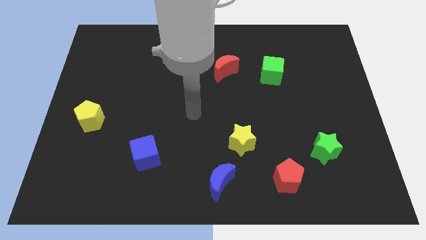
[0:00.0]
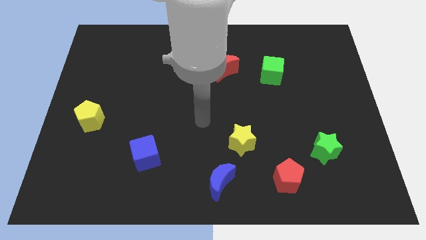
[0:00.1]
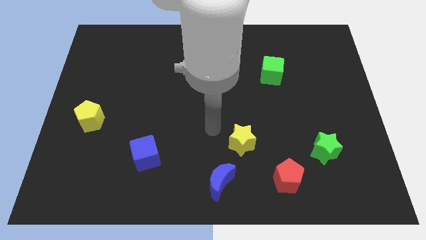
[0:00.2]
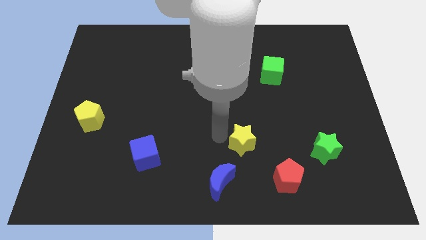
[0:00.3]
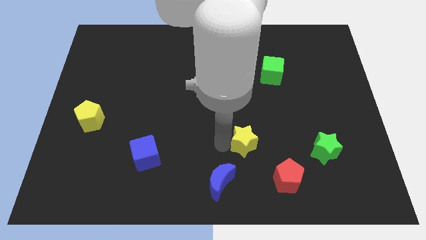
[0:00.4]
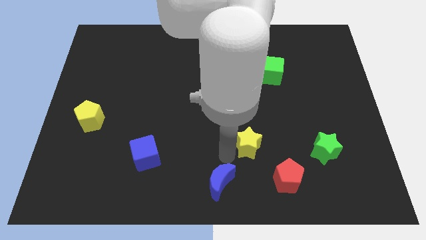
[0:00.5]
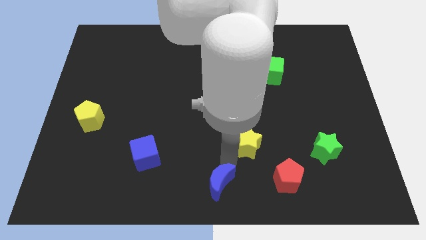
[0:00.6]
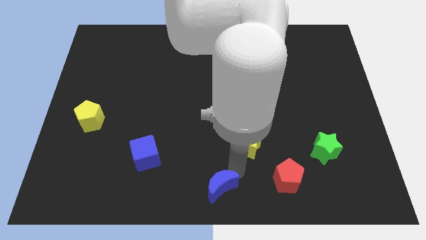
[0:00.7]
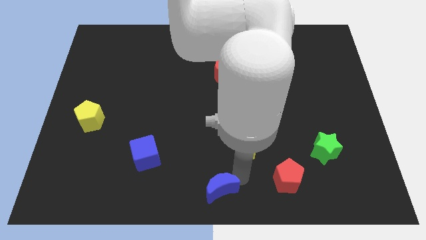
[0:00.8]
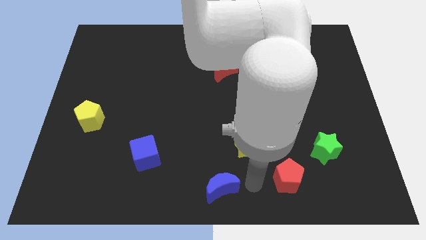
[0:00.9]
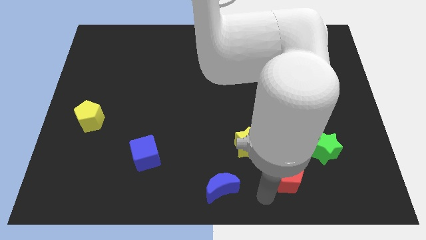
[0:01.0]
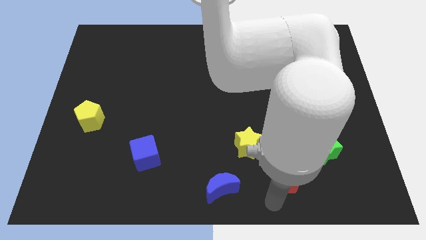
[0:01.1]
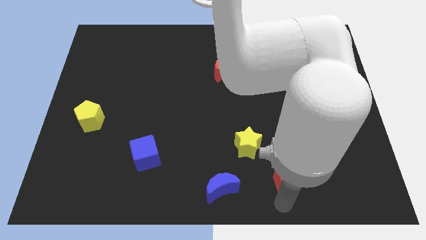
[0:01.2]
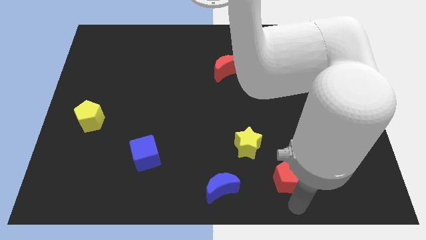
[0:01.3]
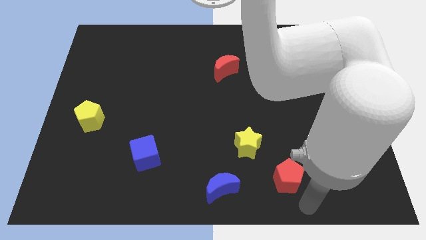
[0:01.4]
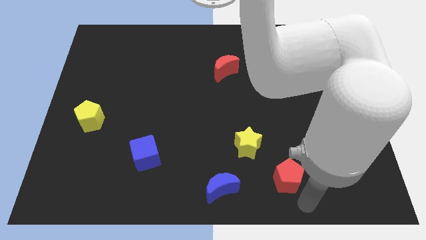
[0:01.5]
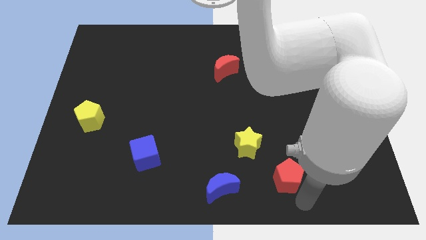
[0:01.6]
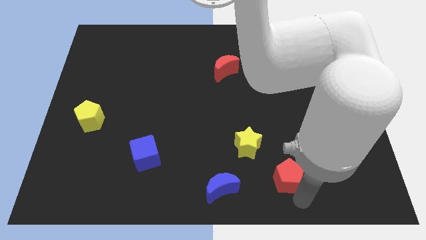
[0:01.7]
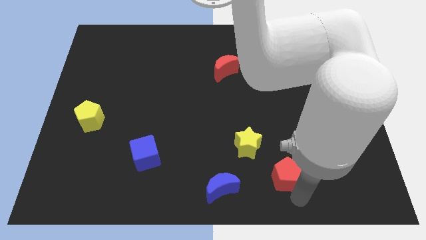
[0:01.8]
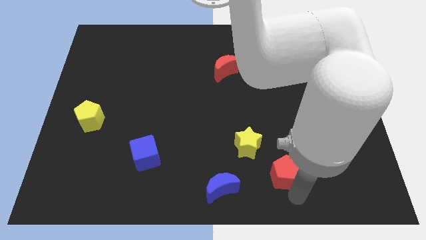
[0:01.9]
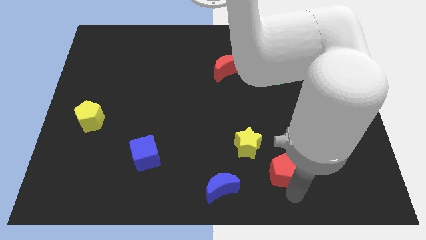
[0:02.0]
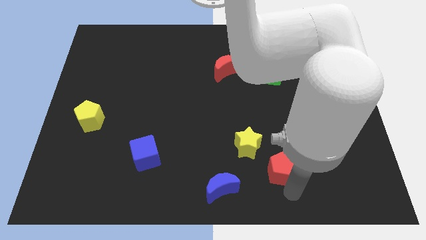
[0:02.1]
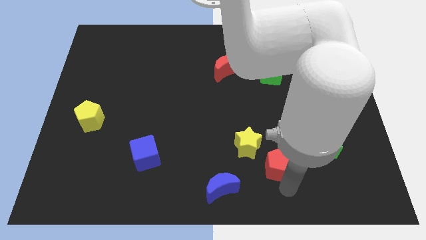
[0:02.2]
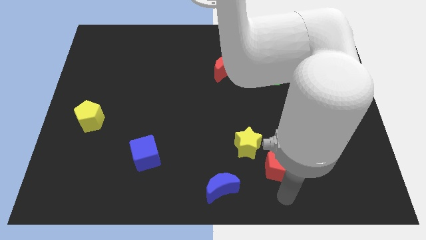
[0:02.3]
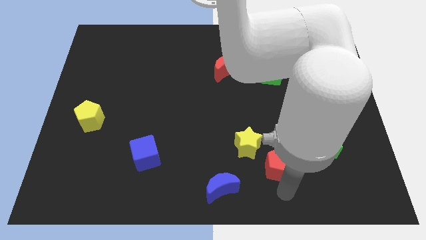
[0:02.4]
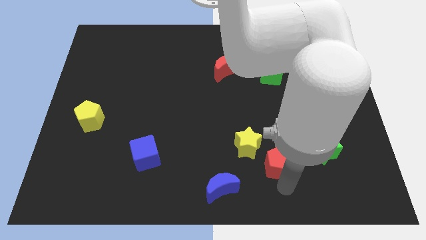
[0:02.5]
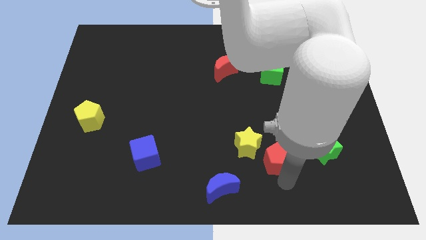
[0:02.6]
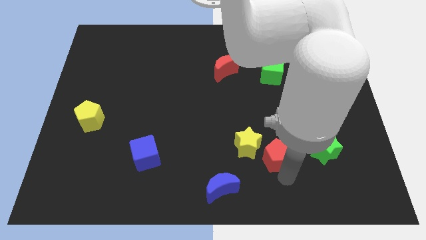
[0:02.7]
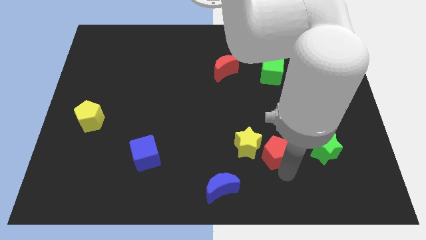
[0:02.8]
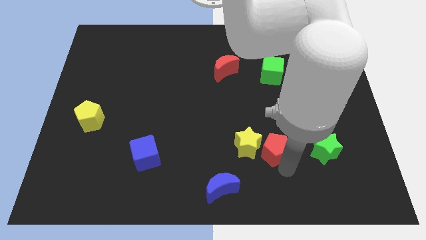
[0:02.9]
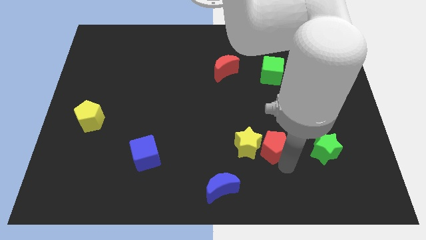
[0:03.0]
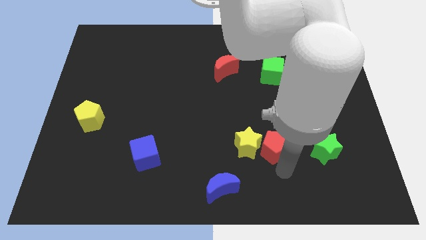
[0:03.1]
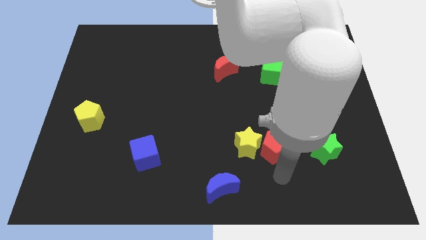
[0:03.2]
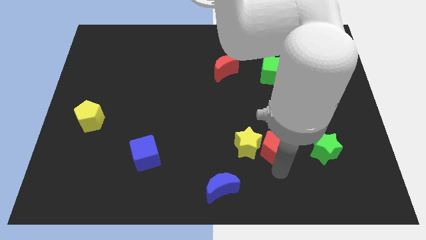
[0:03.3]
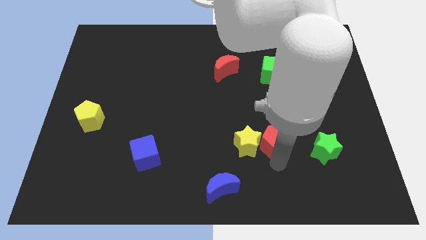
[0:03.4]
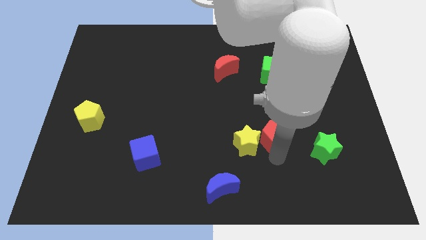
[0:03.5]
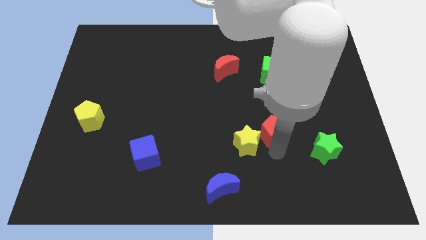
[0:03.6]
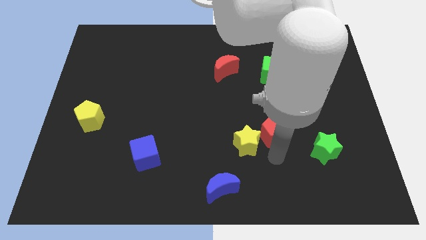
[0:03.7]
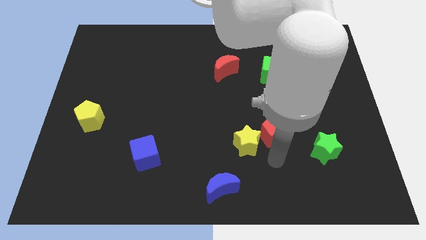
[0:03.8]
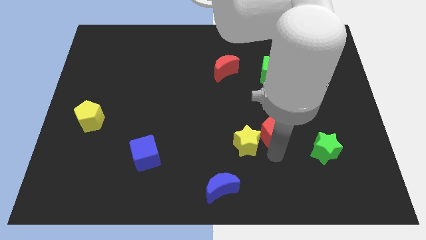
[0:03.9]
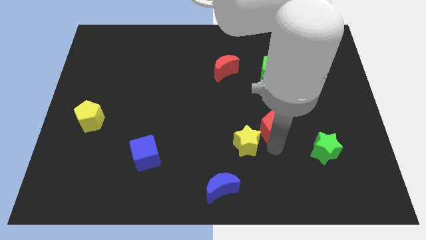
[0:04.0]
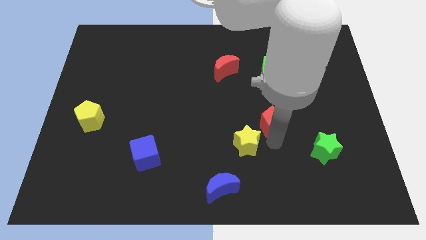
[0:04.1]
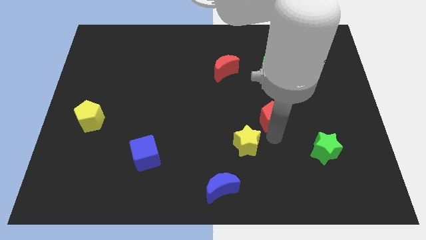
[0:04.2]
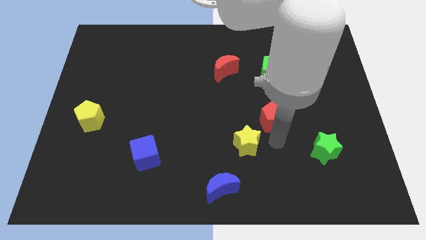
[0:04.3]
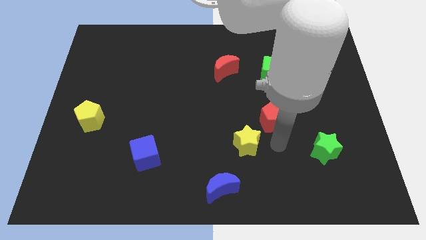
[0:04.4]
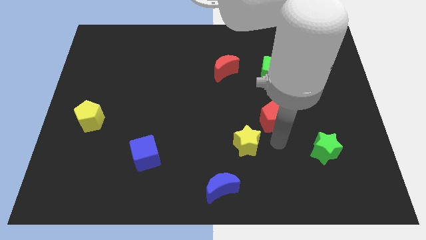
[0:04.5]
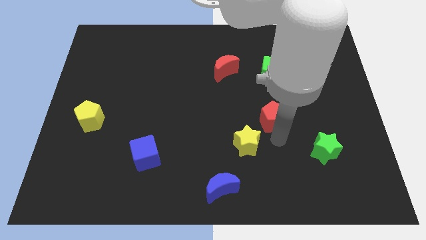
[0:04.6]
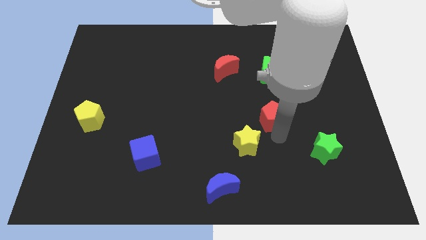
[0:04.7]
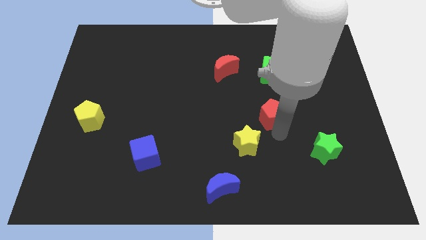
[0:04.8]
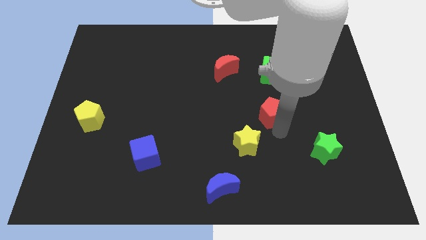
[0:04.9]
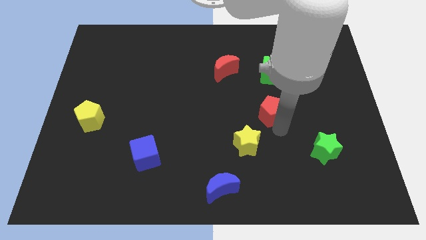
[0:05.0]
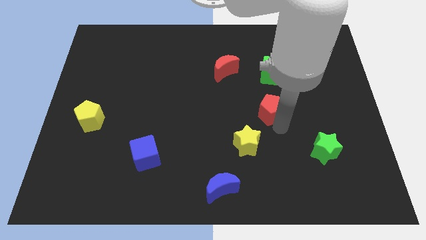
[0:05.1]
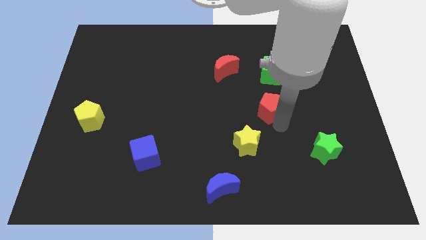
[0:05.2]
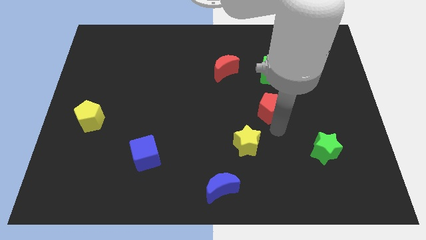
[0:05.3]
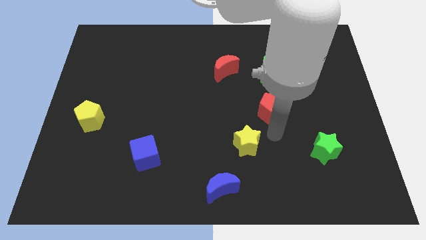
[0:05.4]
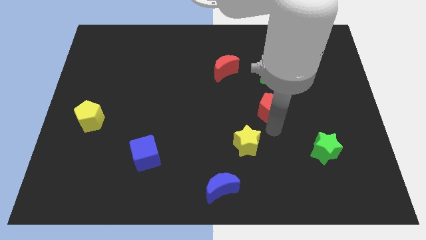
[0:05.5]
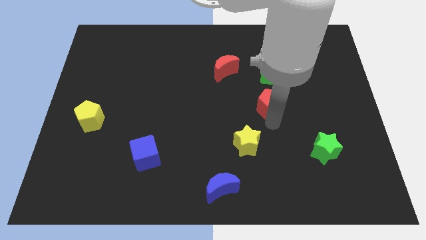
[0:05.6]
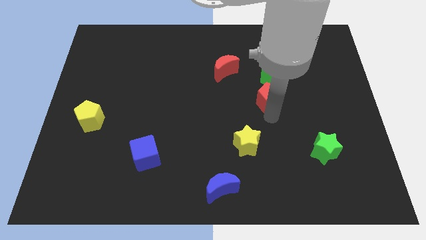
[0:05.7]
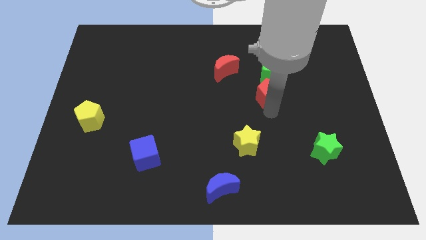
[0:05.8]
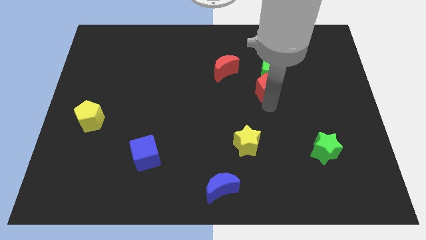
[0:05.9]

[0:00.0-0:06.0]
push the red pentagon close to the green cube

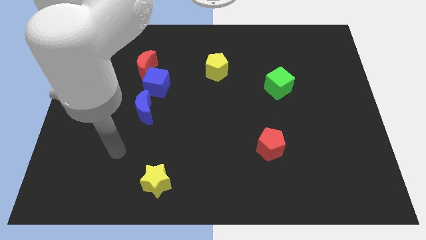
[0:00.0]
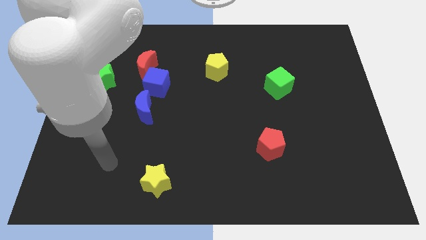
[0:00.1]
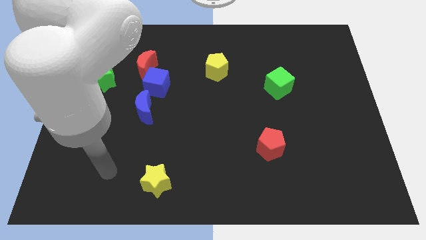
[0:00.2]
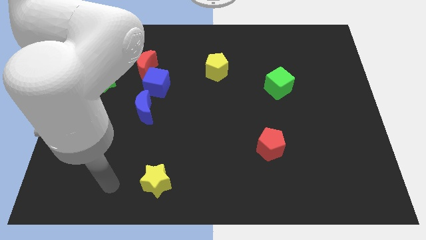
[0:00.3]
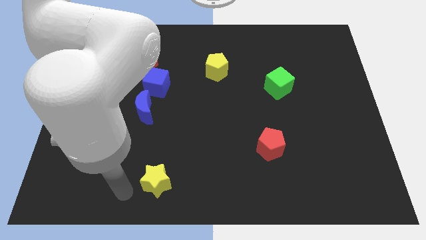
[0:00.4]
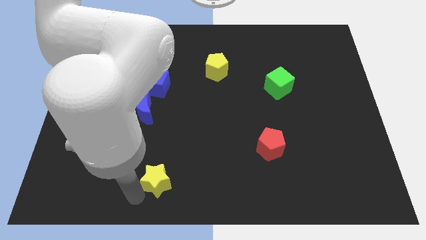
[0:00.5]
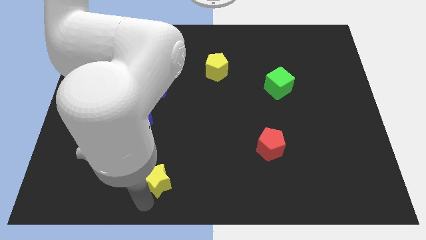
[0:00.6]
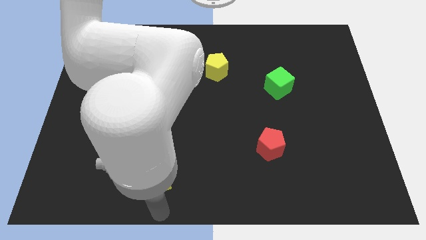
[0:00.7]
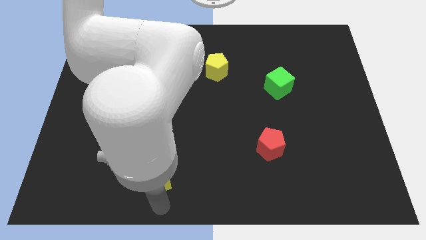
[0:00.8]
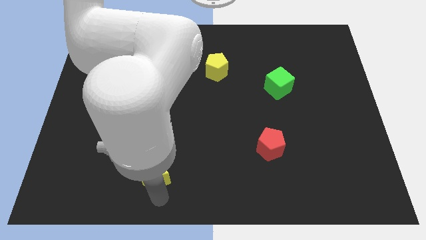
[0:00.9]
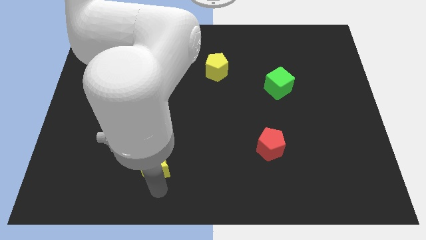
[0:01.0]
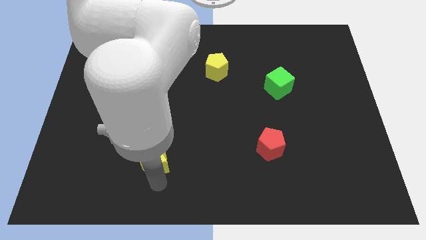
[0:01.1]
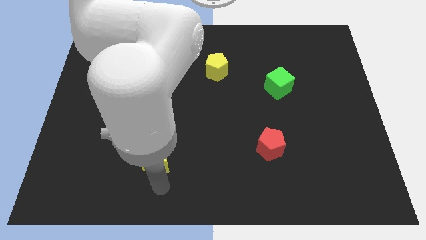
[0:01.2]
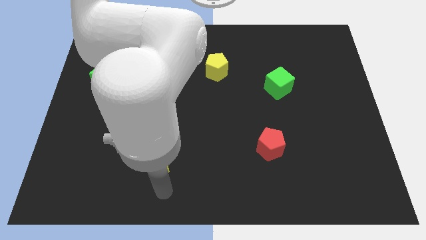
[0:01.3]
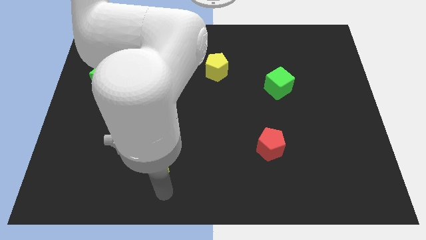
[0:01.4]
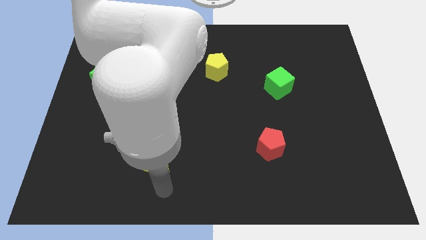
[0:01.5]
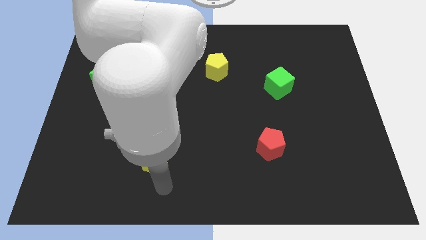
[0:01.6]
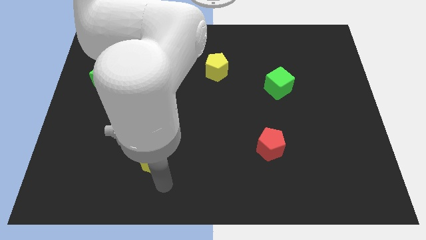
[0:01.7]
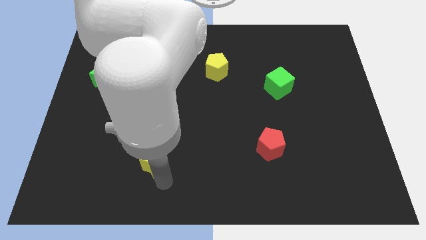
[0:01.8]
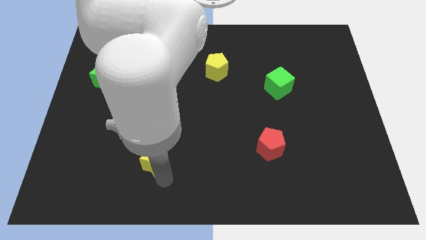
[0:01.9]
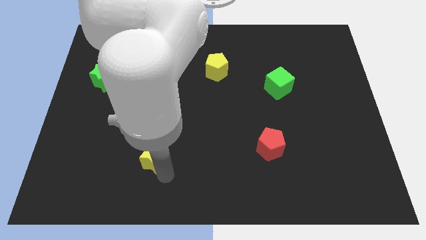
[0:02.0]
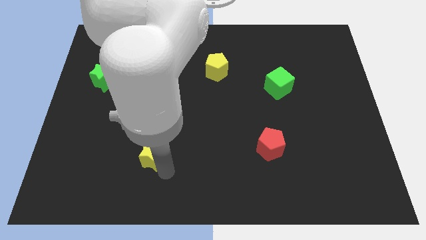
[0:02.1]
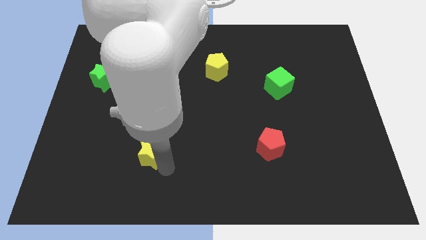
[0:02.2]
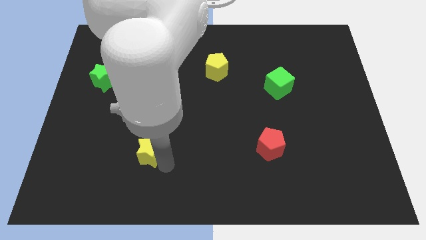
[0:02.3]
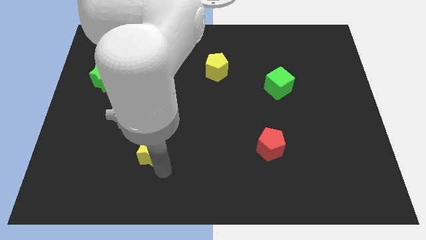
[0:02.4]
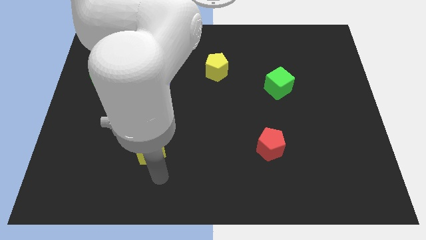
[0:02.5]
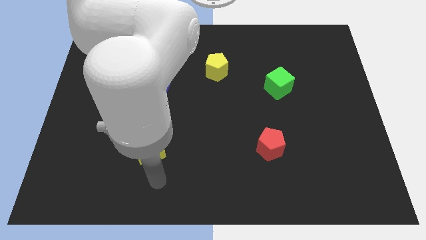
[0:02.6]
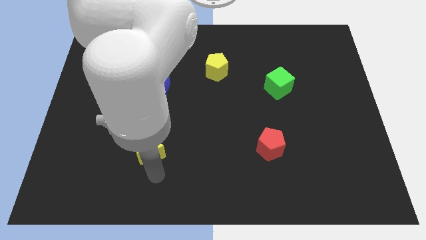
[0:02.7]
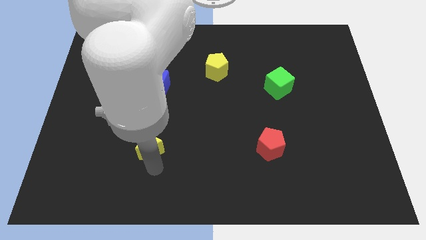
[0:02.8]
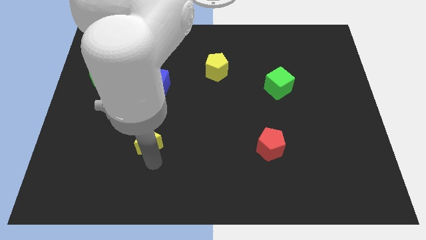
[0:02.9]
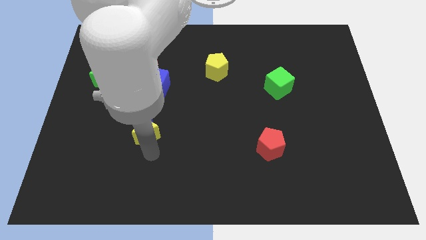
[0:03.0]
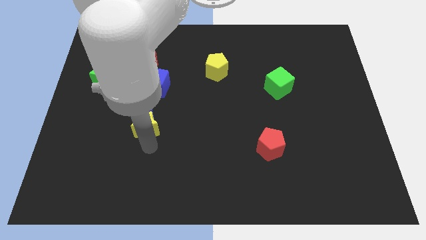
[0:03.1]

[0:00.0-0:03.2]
move the yellow star close to the blue moon
